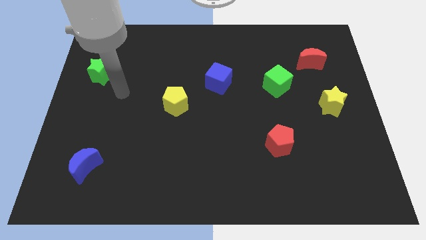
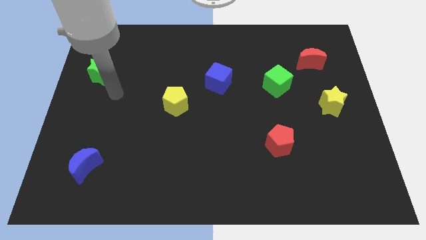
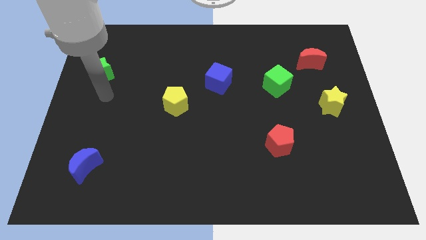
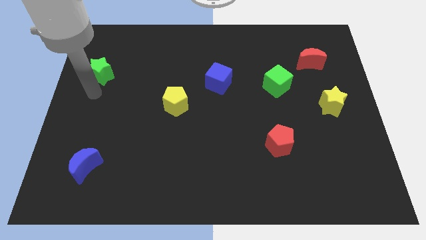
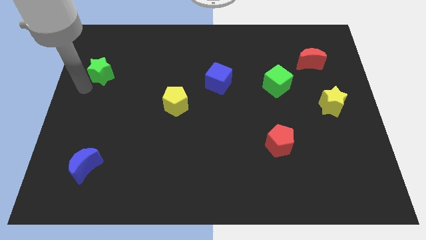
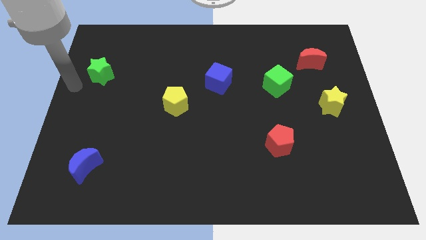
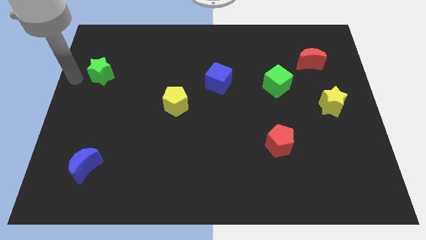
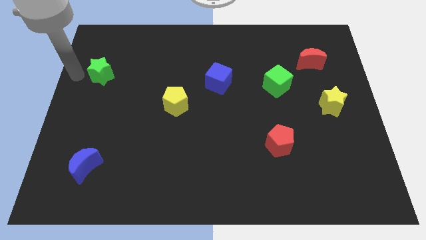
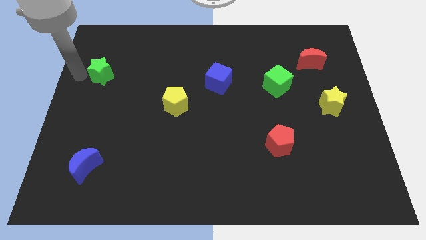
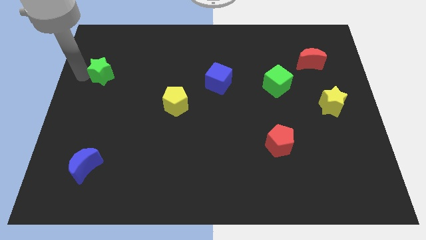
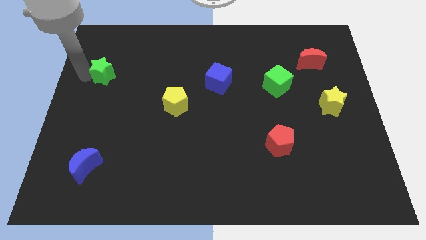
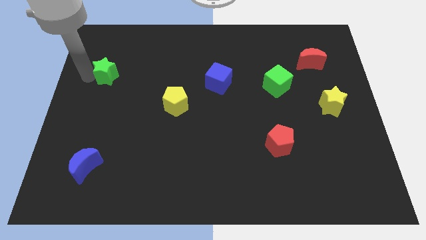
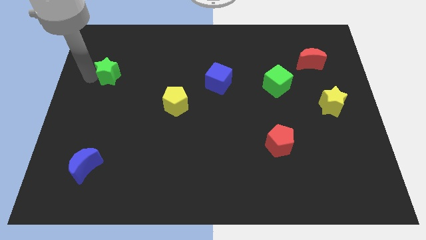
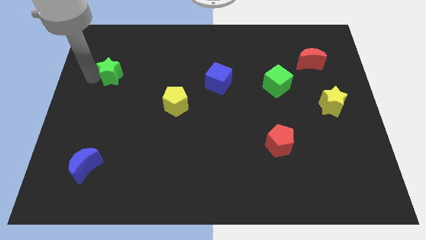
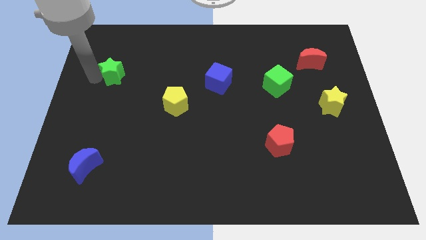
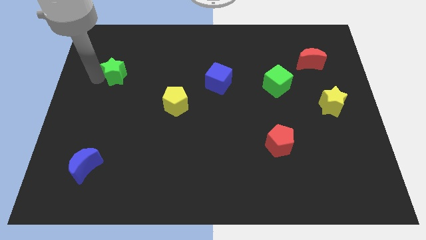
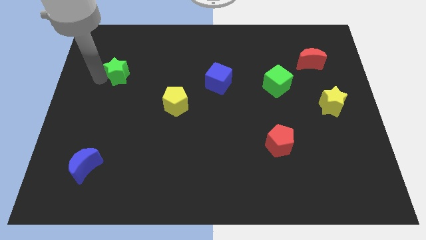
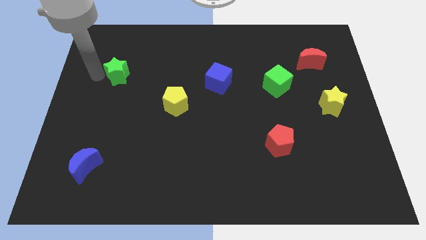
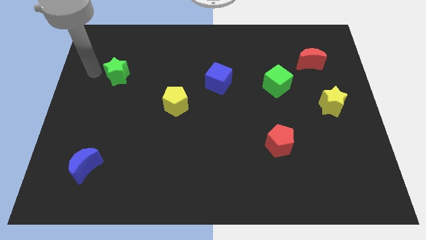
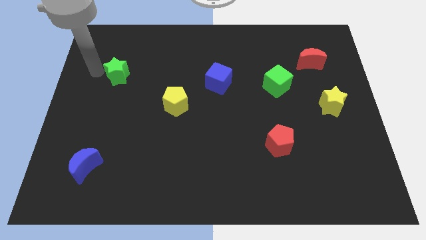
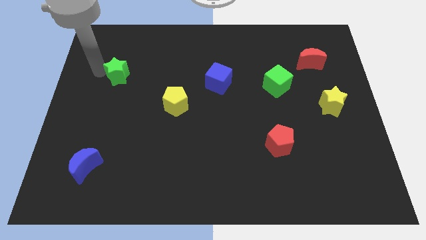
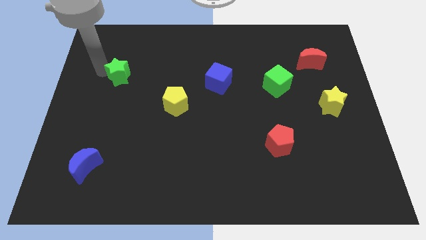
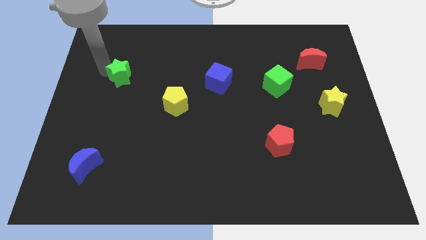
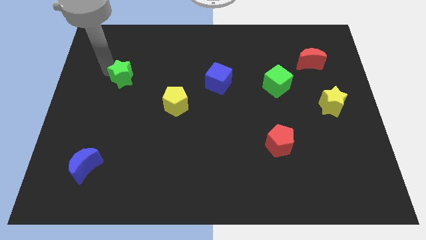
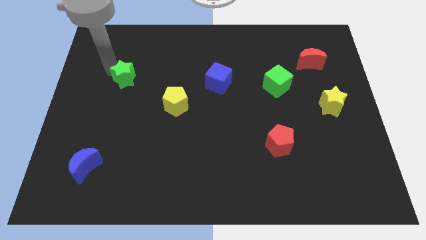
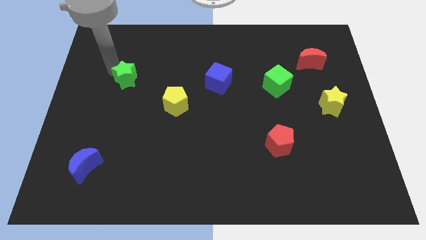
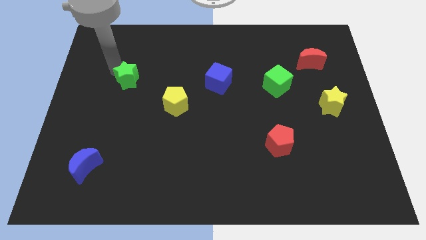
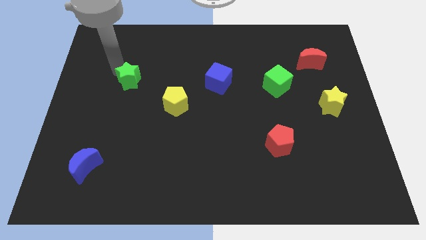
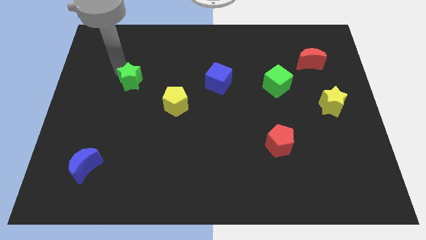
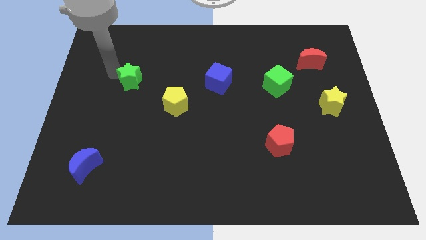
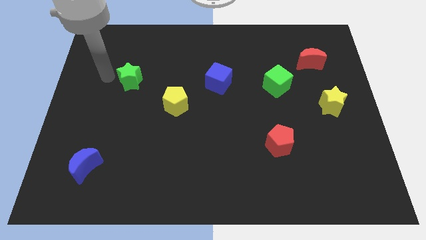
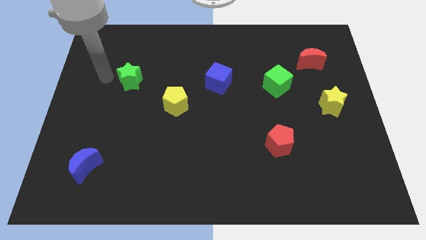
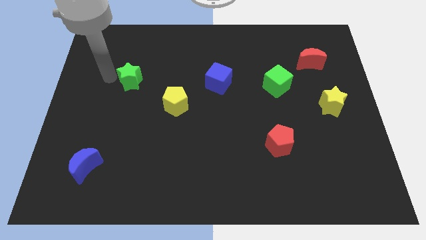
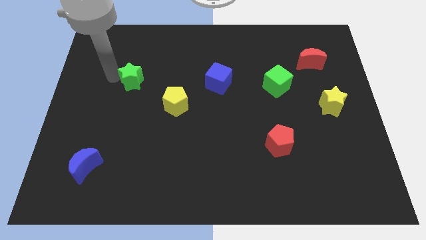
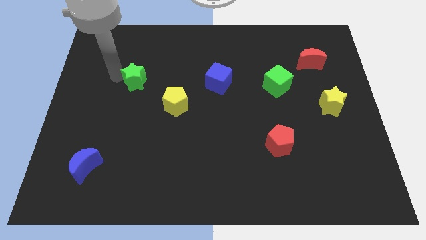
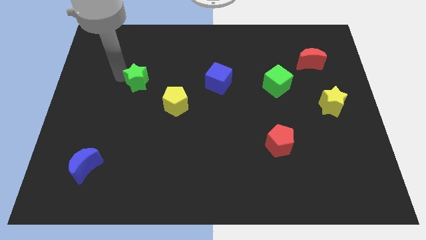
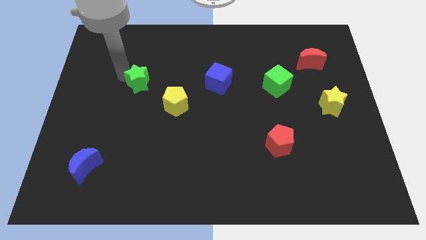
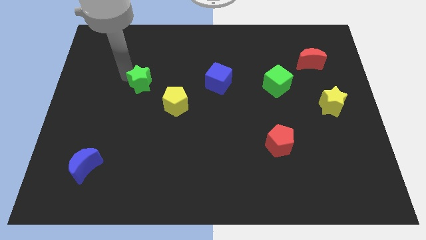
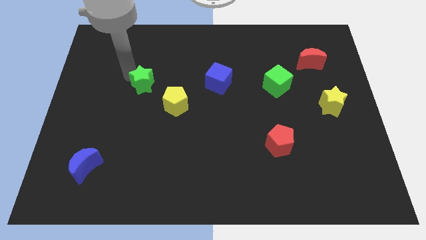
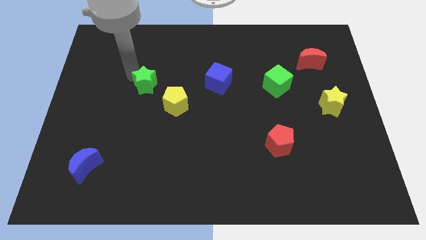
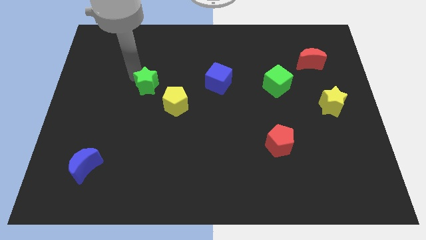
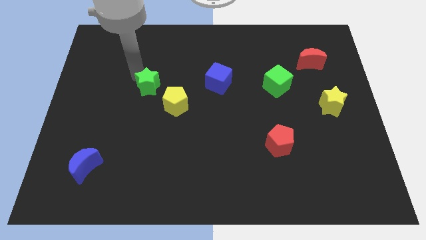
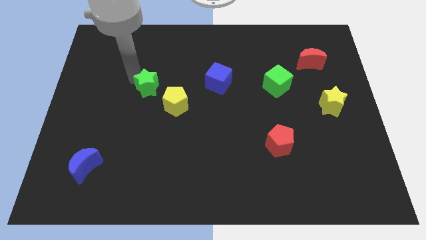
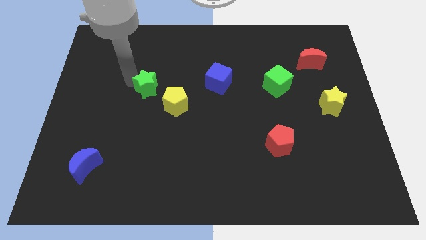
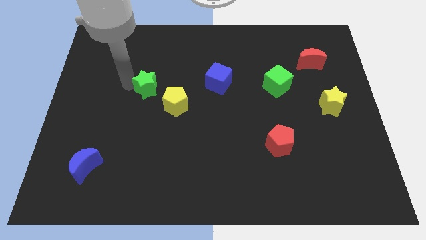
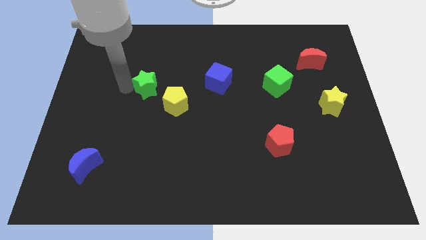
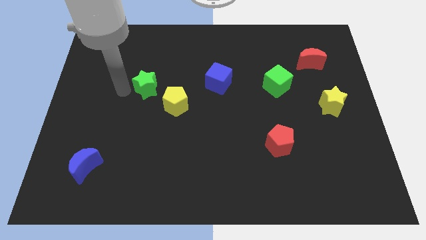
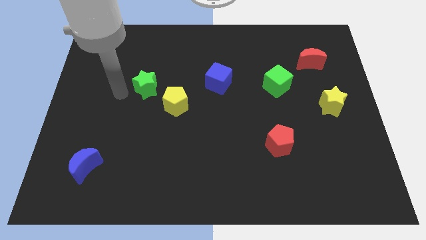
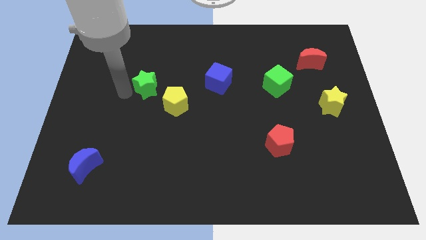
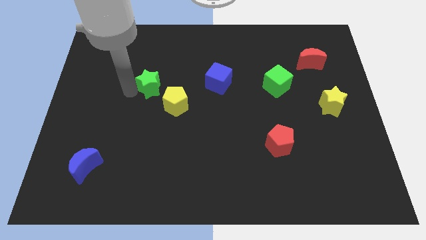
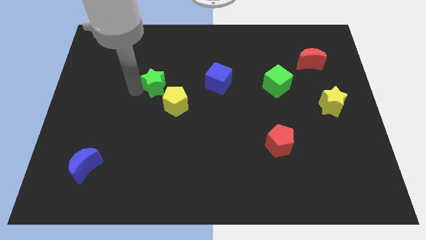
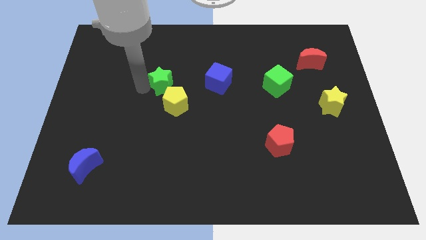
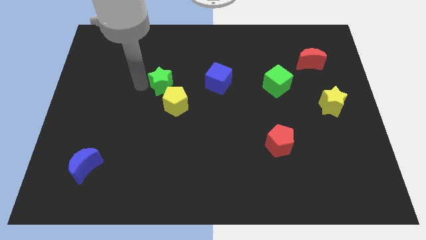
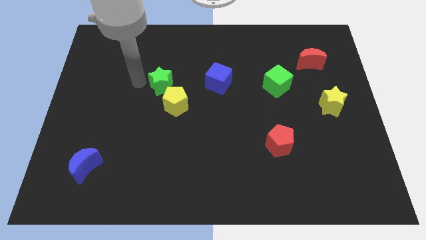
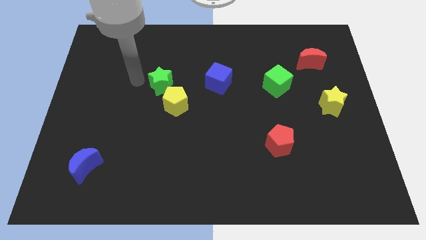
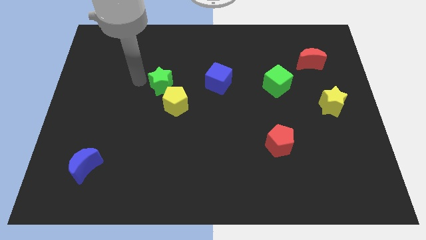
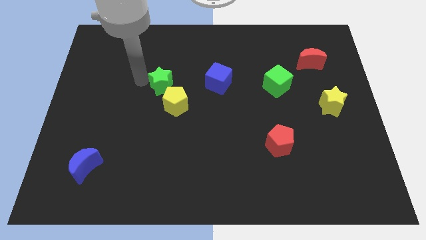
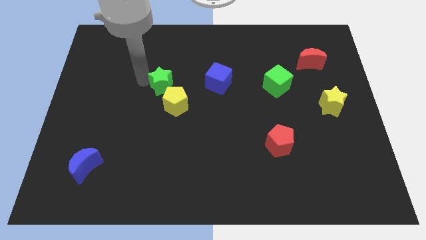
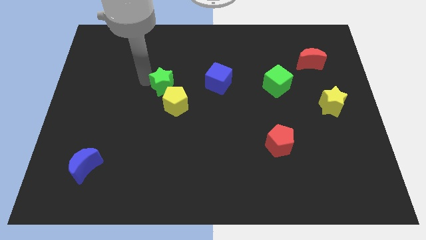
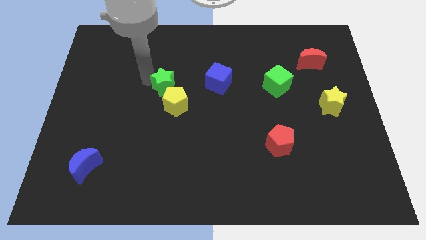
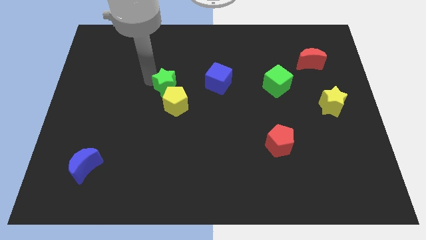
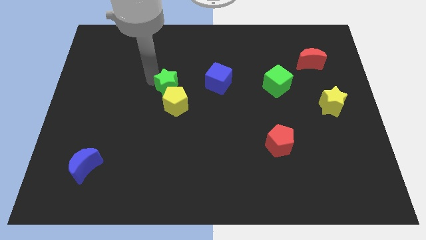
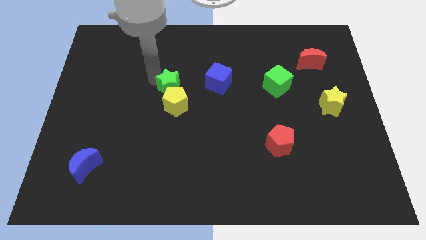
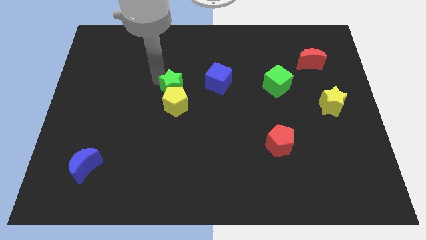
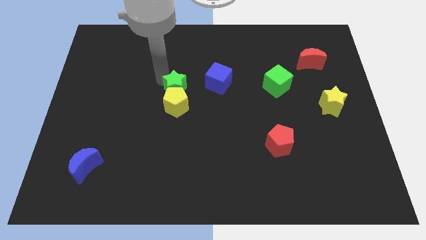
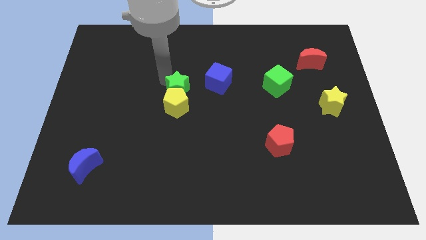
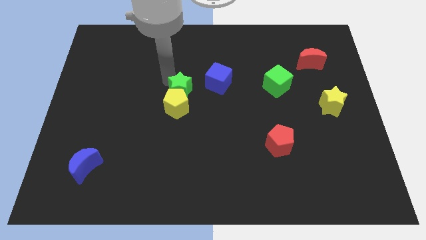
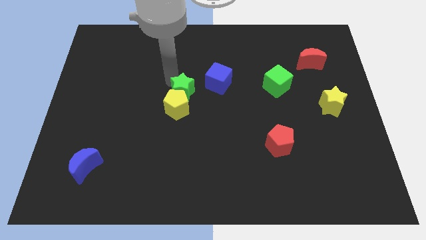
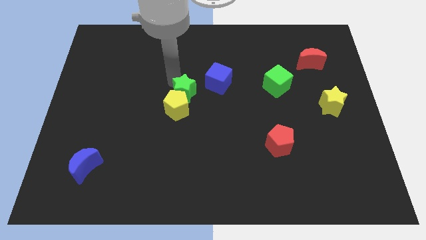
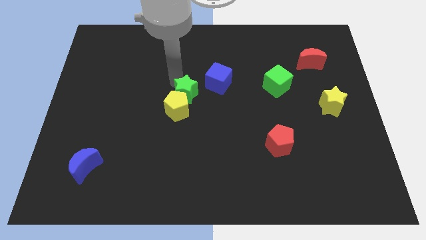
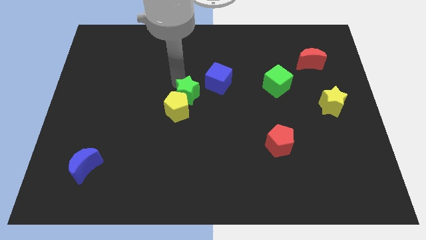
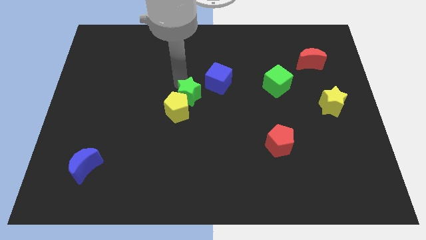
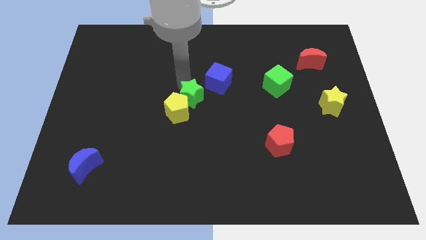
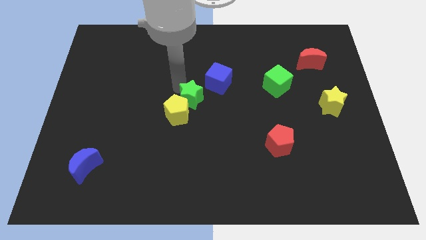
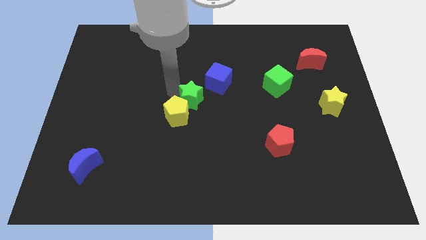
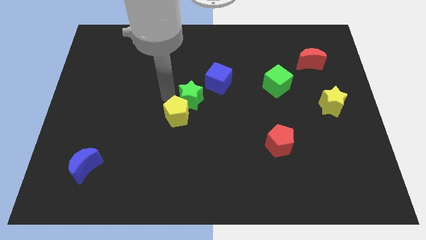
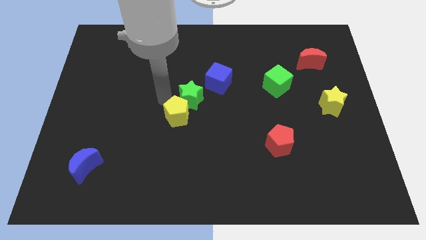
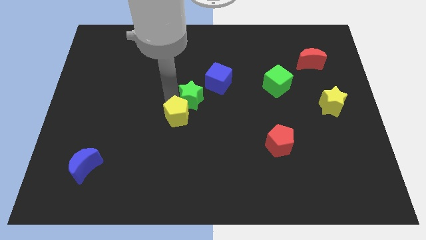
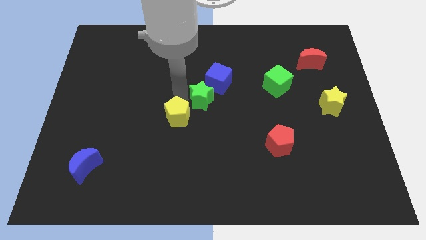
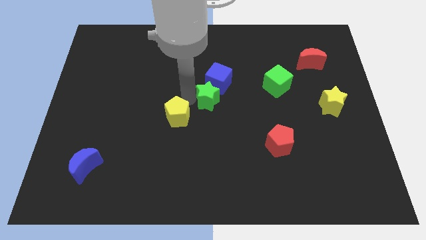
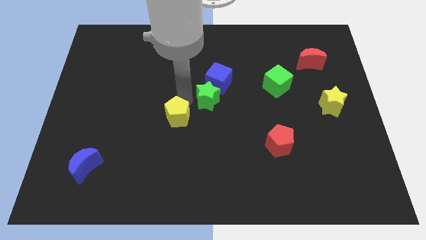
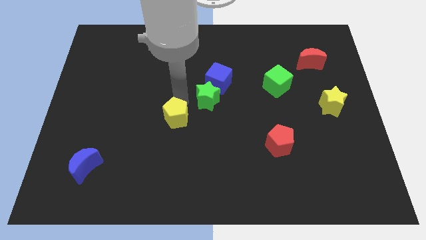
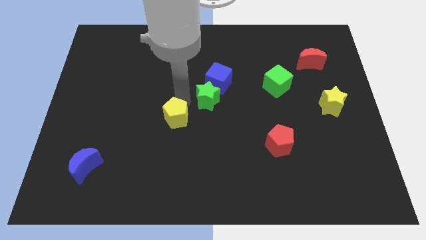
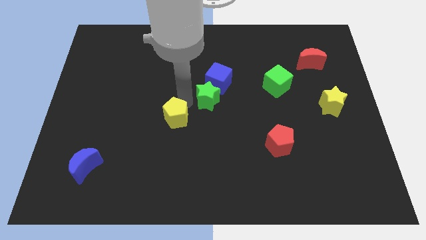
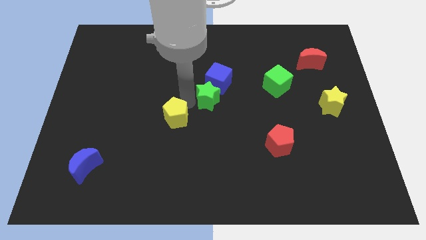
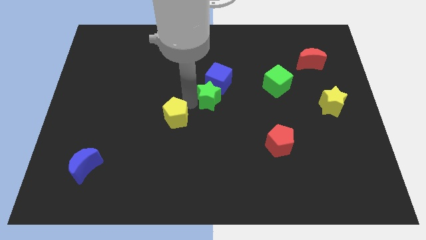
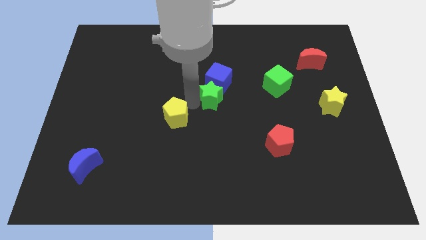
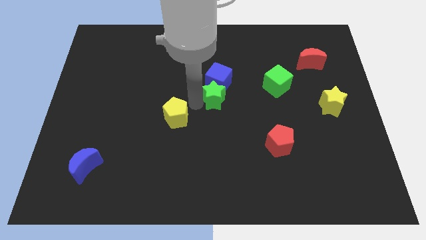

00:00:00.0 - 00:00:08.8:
put the green star to the bottom right side of the blue cube
